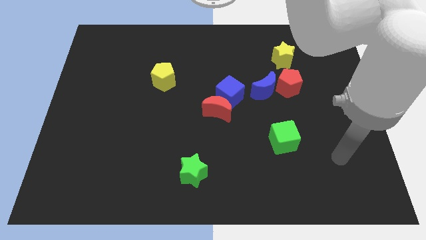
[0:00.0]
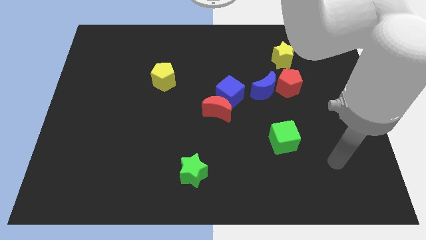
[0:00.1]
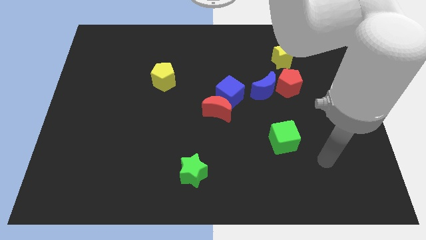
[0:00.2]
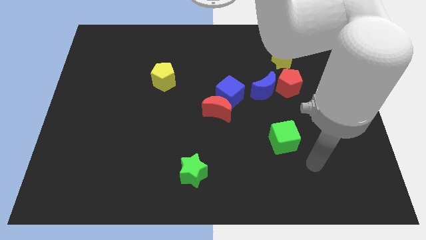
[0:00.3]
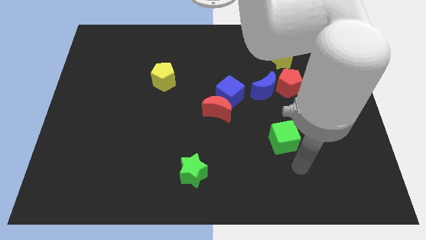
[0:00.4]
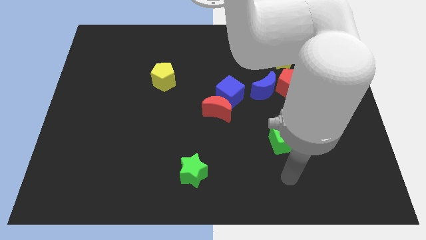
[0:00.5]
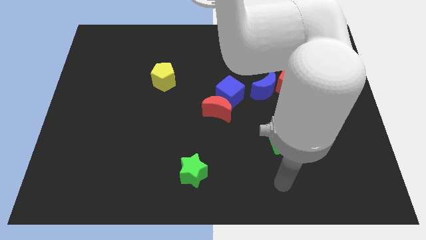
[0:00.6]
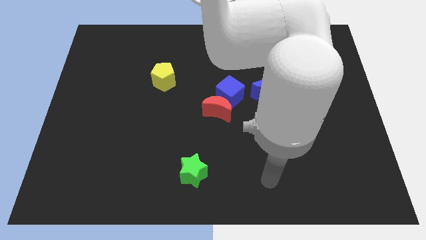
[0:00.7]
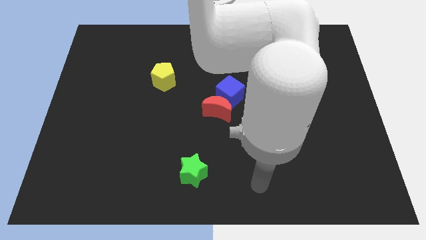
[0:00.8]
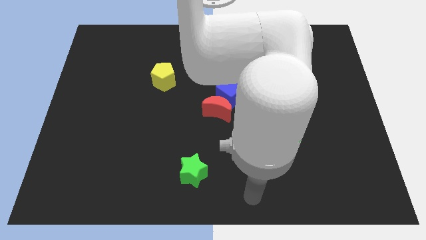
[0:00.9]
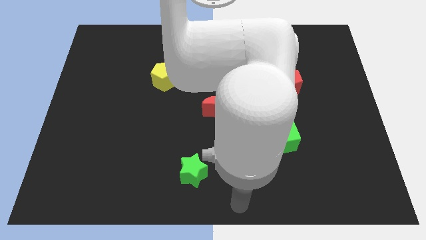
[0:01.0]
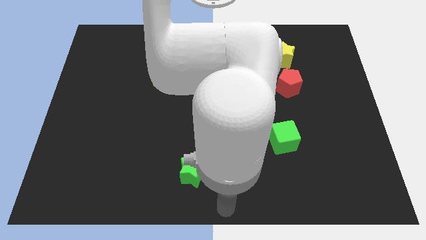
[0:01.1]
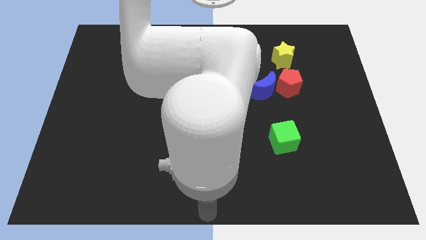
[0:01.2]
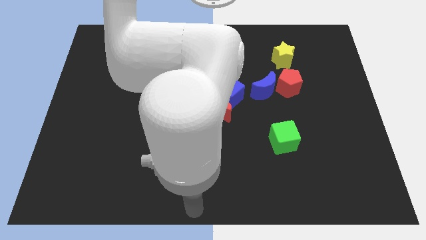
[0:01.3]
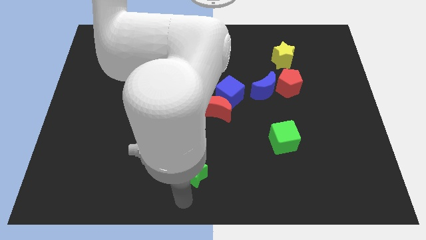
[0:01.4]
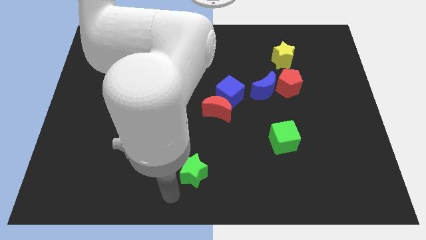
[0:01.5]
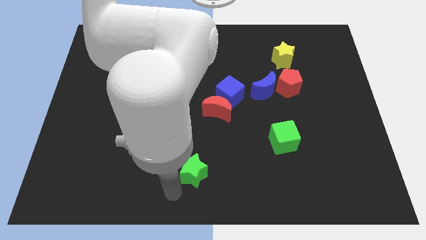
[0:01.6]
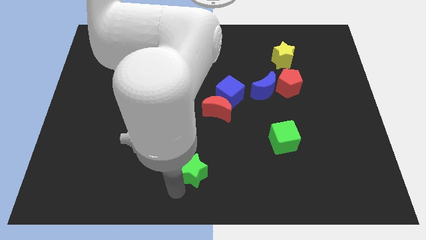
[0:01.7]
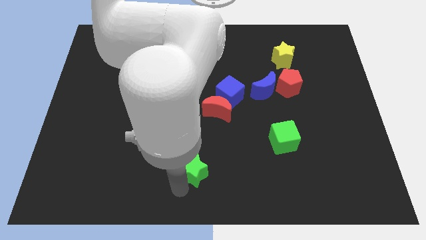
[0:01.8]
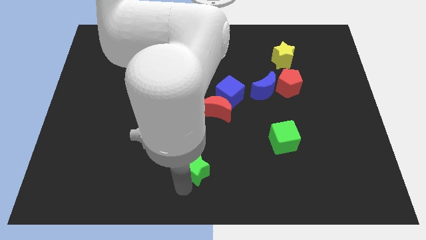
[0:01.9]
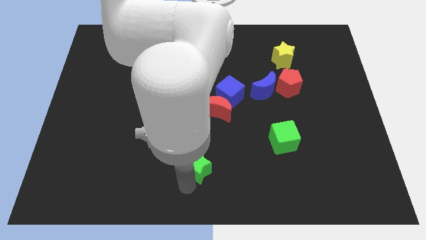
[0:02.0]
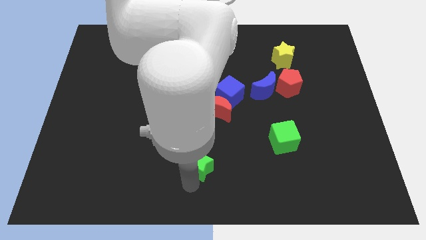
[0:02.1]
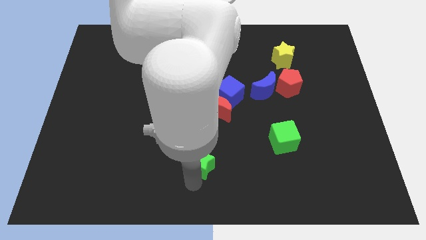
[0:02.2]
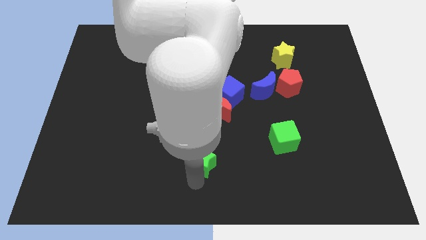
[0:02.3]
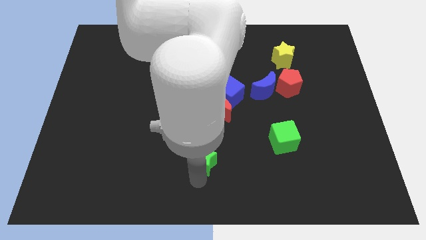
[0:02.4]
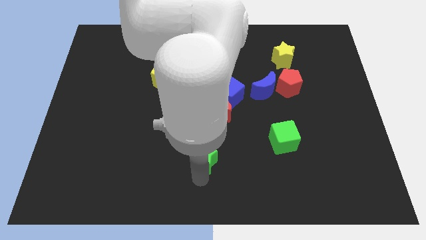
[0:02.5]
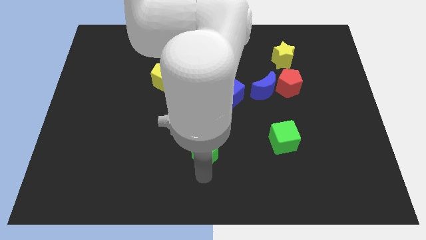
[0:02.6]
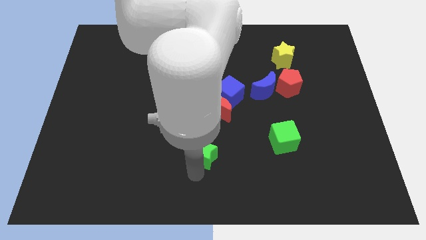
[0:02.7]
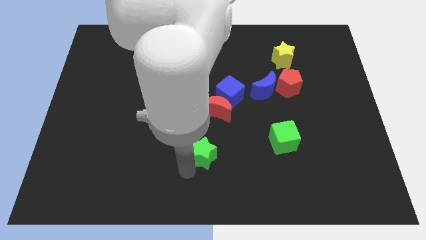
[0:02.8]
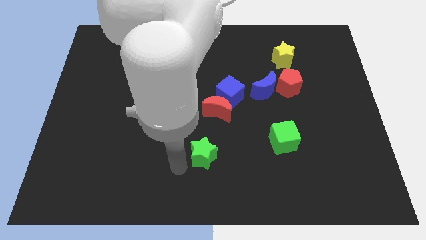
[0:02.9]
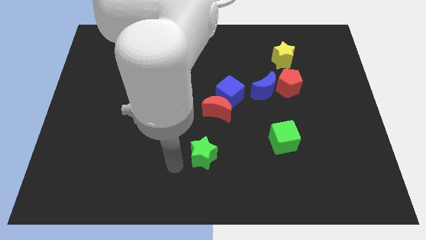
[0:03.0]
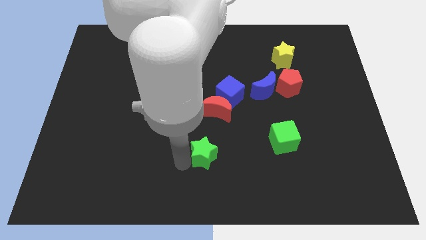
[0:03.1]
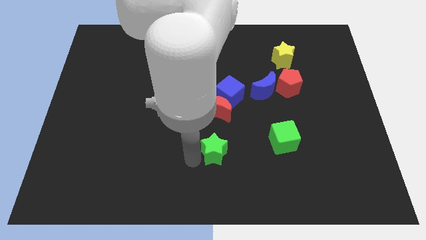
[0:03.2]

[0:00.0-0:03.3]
slide the green star somewhat up and then to the right

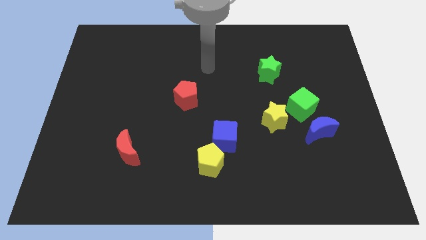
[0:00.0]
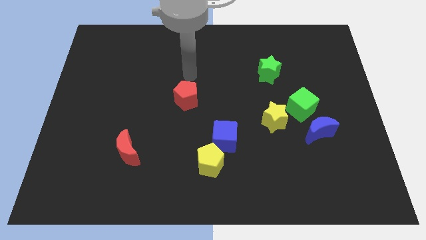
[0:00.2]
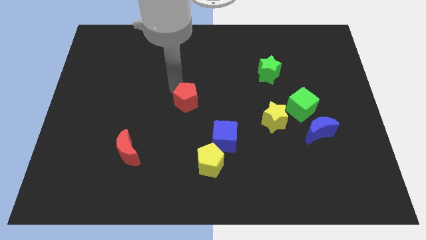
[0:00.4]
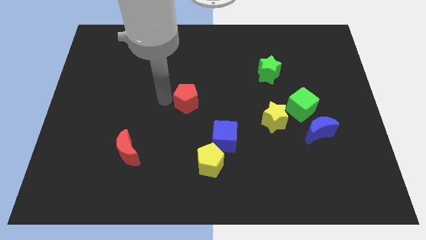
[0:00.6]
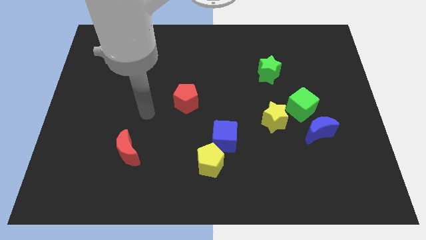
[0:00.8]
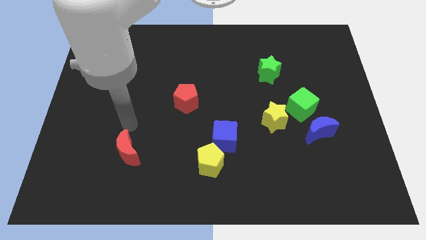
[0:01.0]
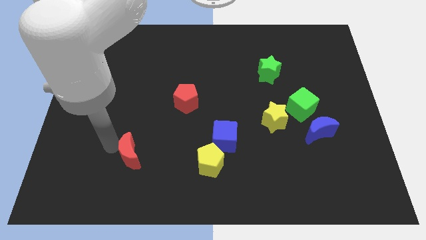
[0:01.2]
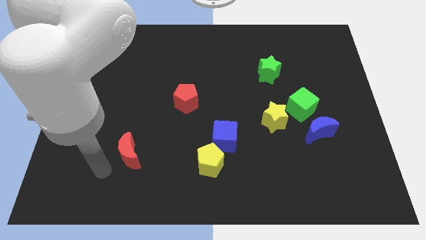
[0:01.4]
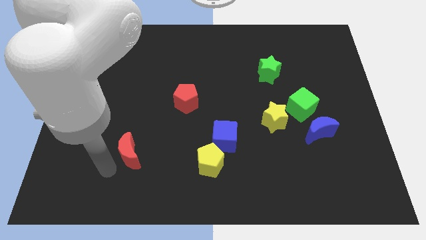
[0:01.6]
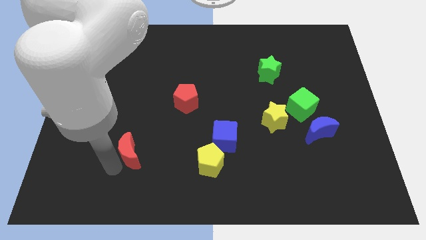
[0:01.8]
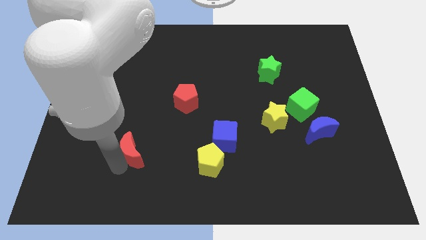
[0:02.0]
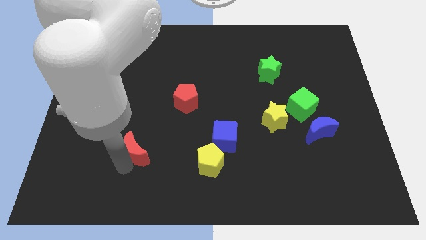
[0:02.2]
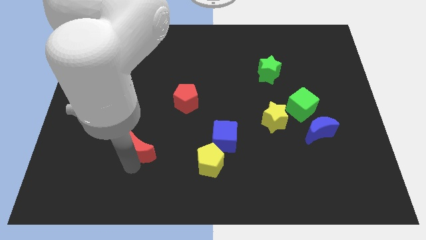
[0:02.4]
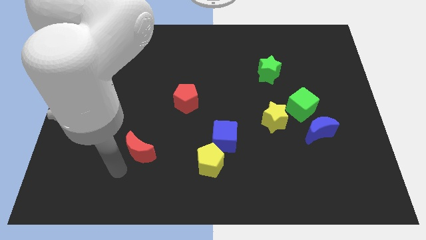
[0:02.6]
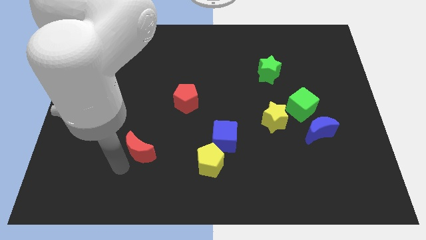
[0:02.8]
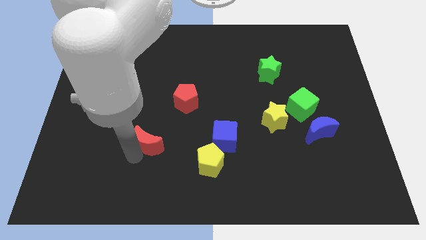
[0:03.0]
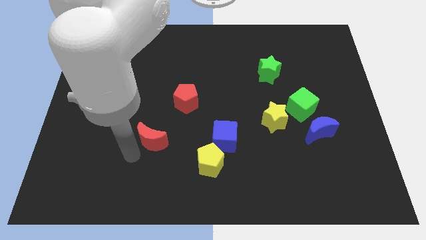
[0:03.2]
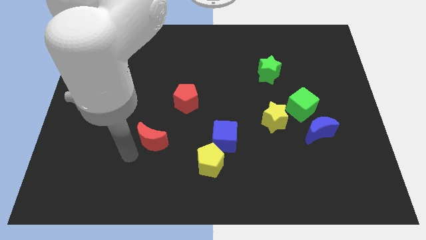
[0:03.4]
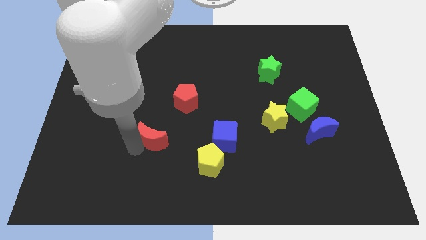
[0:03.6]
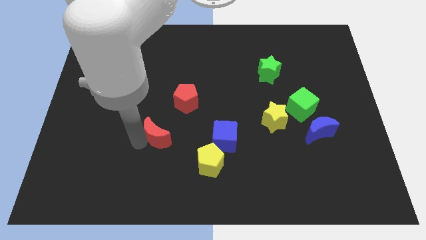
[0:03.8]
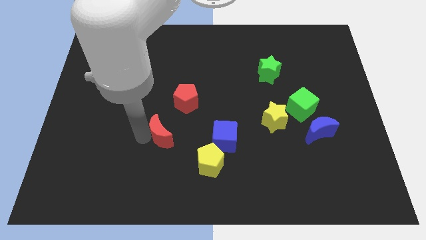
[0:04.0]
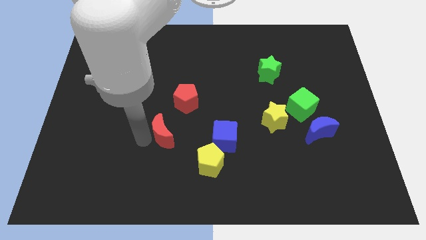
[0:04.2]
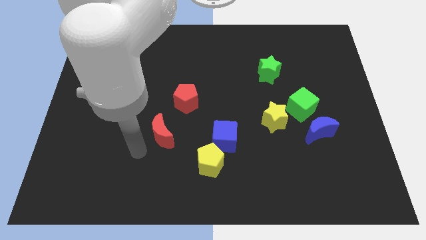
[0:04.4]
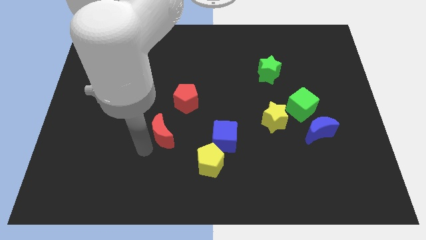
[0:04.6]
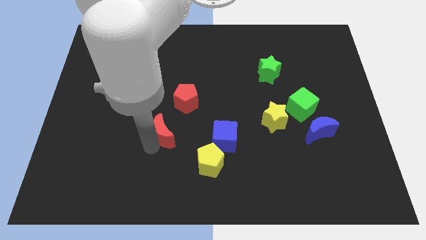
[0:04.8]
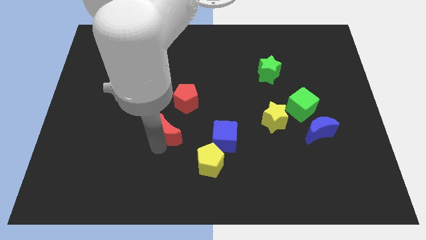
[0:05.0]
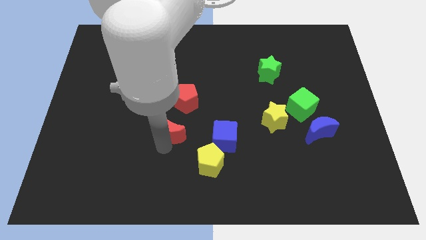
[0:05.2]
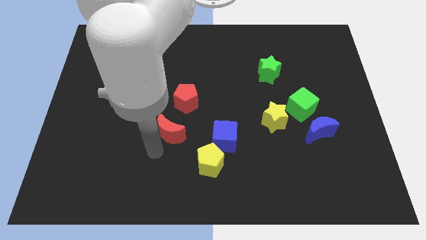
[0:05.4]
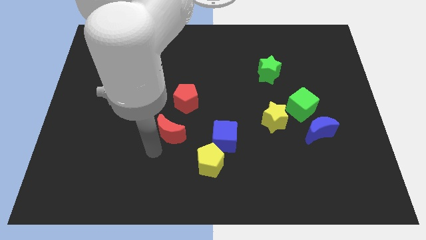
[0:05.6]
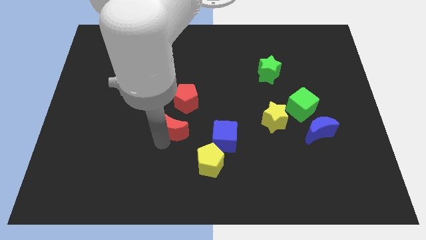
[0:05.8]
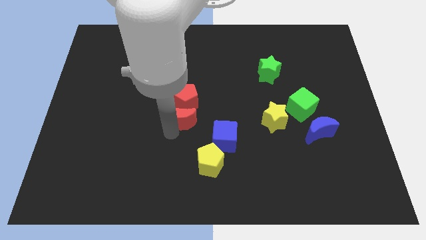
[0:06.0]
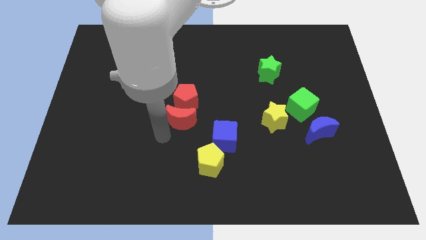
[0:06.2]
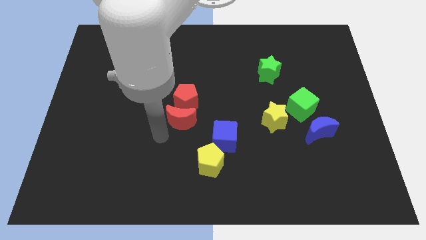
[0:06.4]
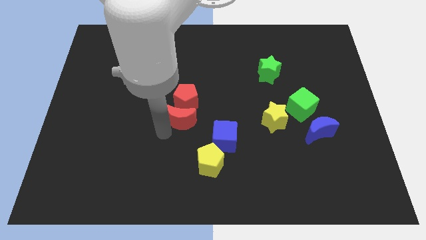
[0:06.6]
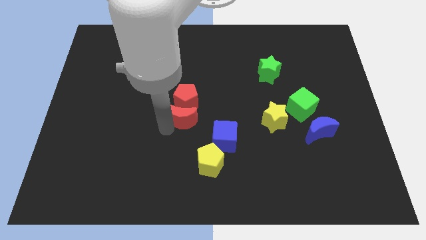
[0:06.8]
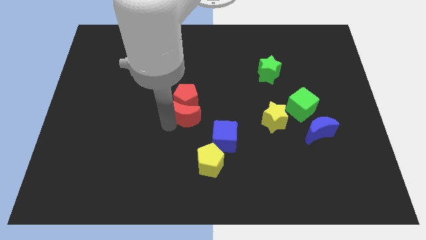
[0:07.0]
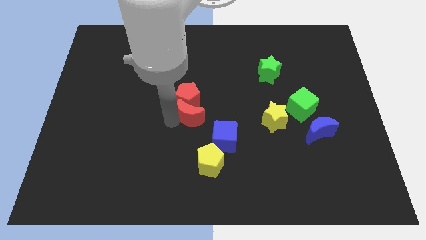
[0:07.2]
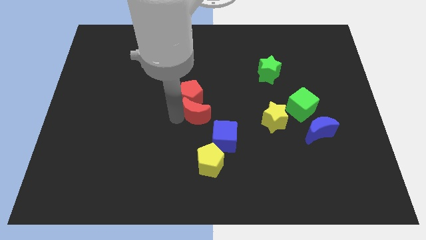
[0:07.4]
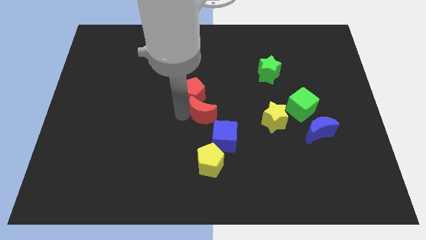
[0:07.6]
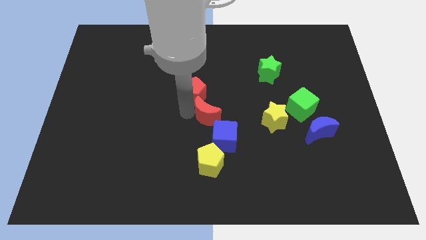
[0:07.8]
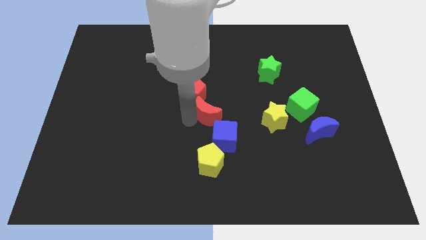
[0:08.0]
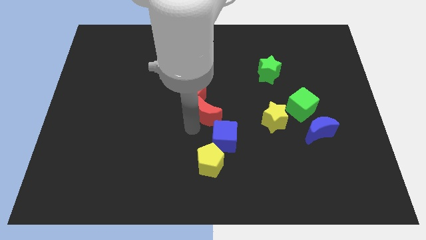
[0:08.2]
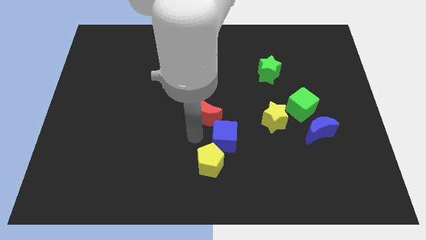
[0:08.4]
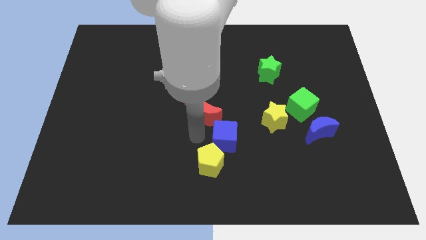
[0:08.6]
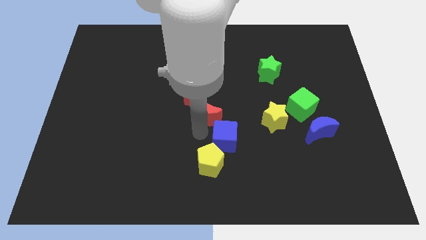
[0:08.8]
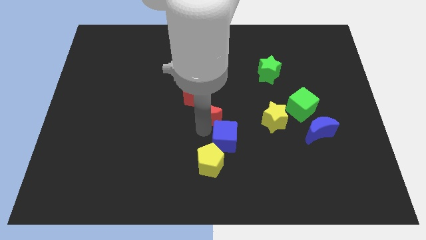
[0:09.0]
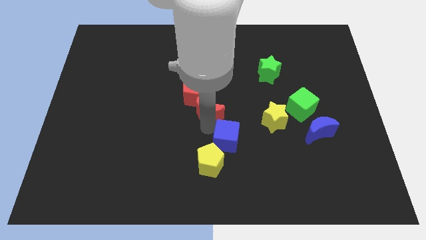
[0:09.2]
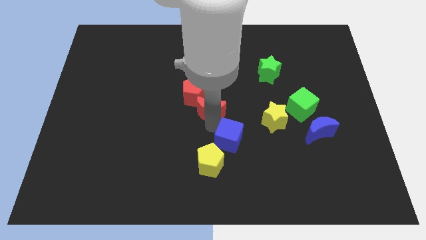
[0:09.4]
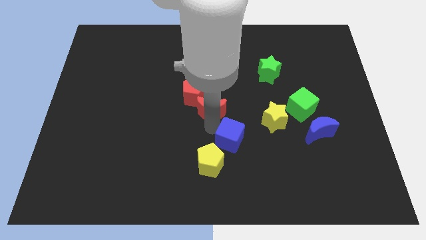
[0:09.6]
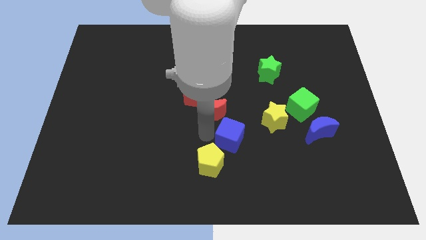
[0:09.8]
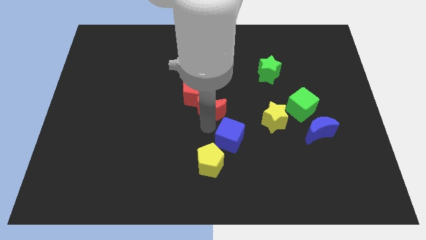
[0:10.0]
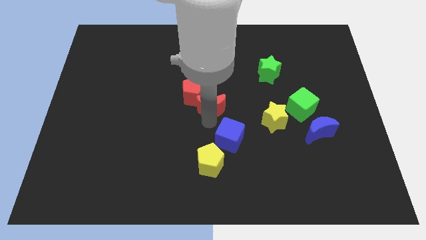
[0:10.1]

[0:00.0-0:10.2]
move the red moon diagonally up and to the right
